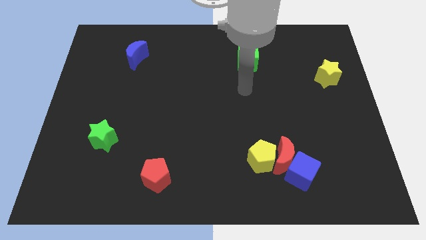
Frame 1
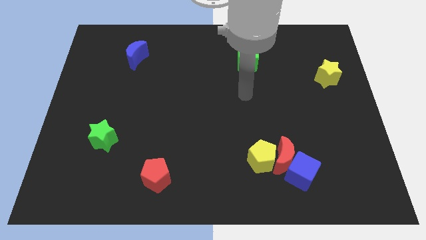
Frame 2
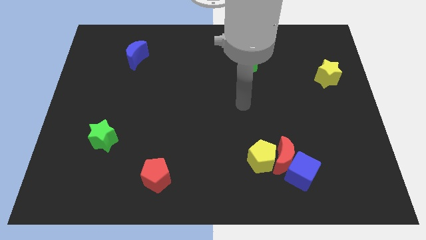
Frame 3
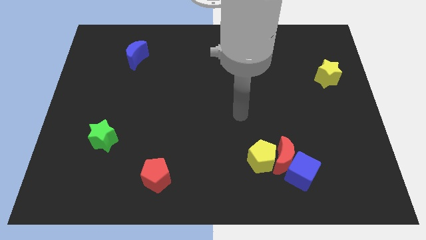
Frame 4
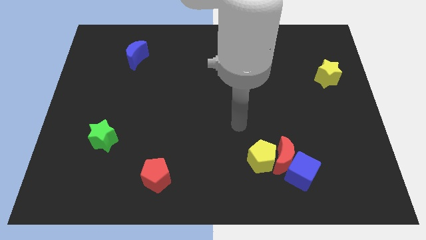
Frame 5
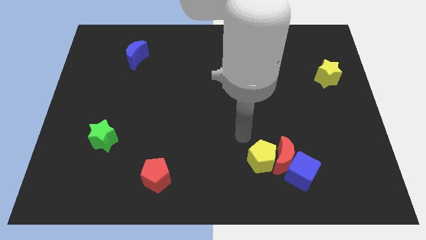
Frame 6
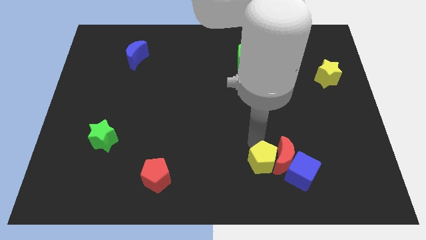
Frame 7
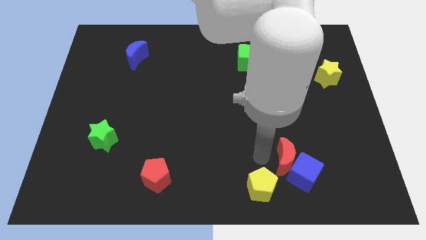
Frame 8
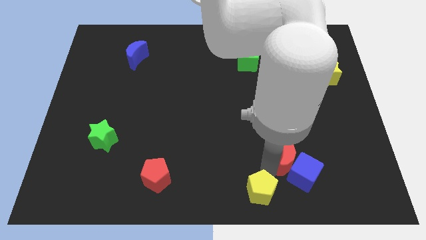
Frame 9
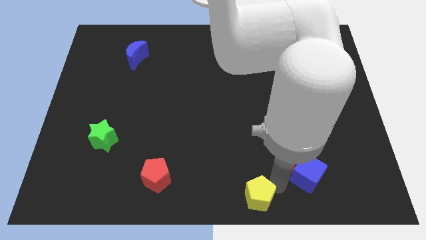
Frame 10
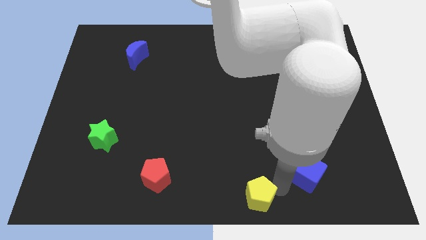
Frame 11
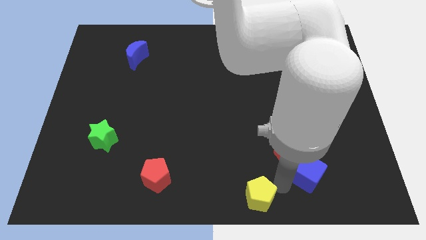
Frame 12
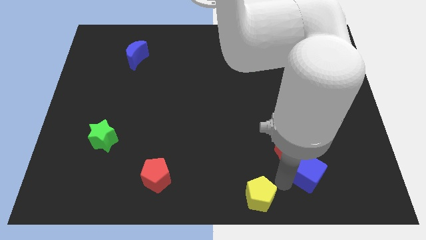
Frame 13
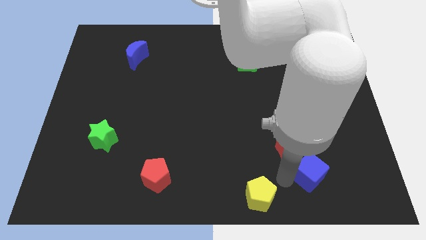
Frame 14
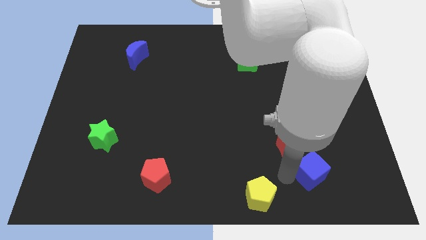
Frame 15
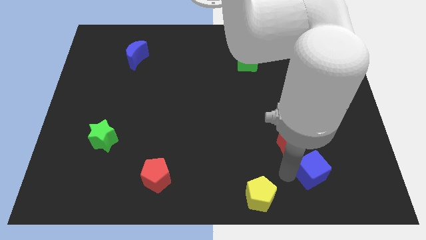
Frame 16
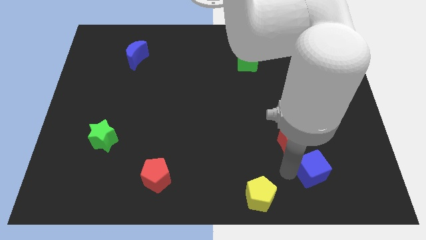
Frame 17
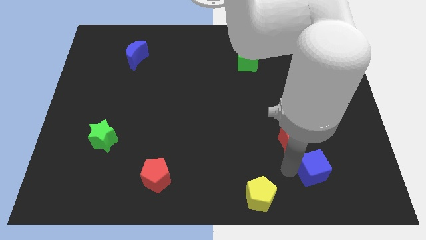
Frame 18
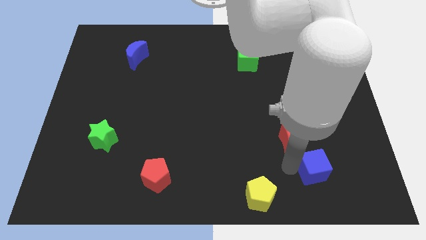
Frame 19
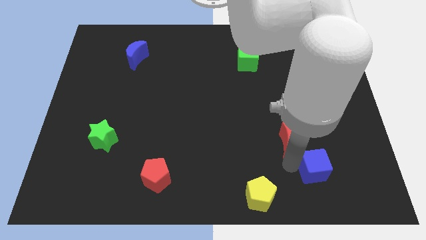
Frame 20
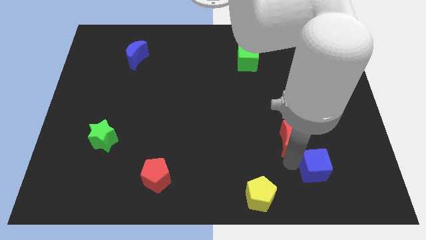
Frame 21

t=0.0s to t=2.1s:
pull the red moon apart from the blue cube and yellow pentagon

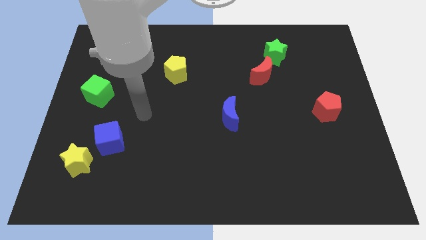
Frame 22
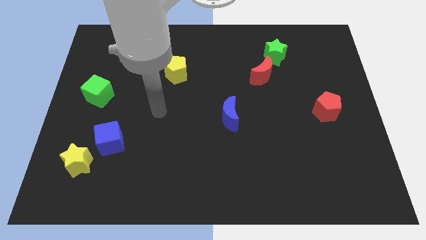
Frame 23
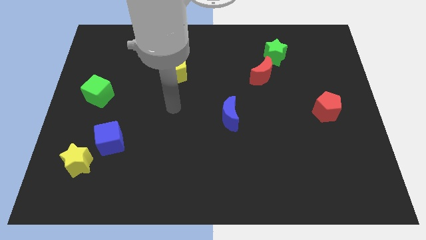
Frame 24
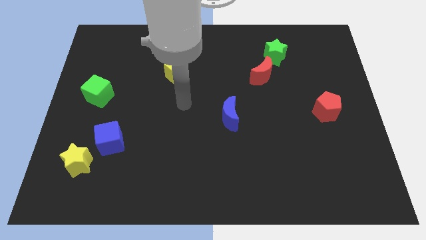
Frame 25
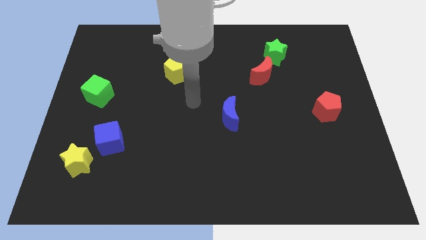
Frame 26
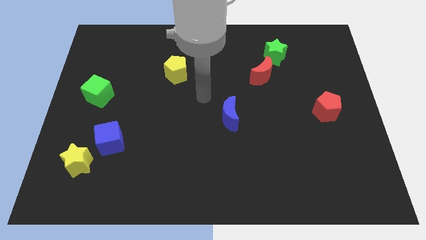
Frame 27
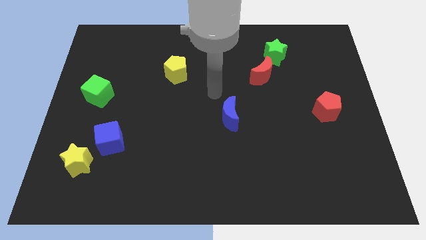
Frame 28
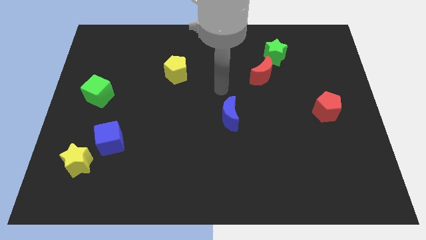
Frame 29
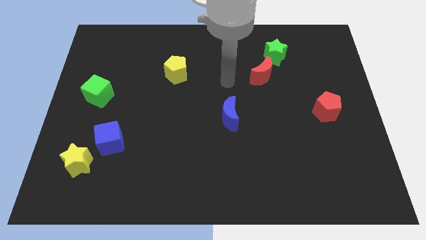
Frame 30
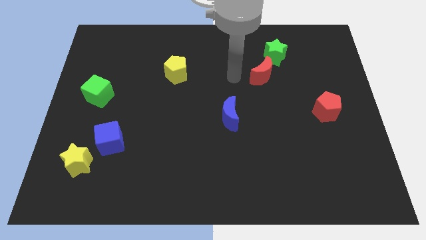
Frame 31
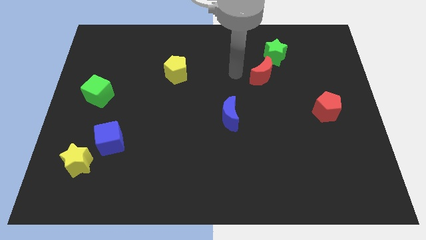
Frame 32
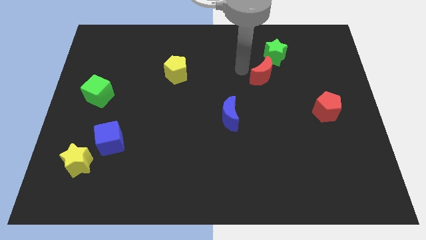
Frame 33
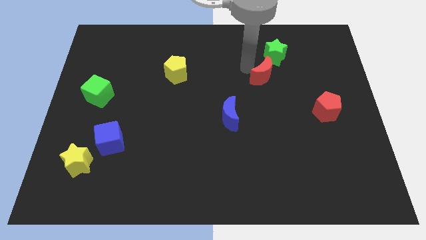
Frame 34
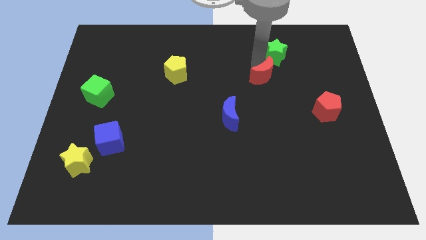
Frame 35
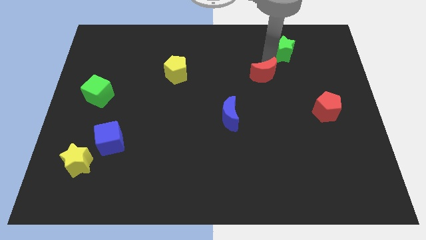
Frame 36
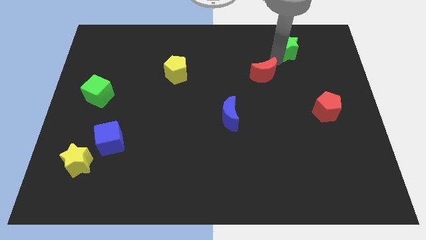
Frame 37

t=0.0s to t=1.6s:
pull the red moon apart from the green star

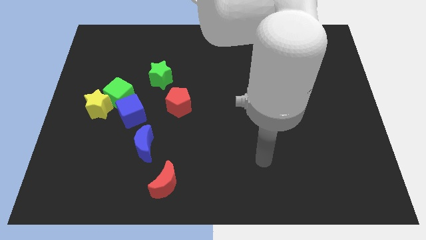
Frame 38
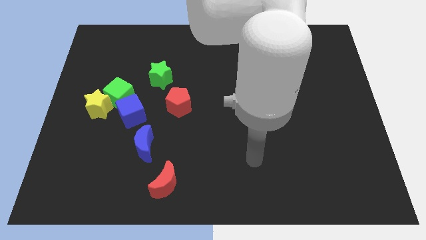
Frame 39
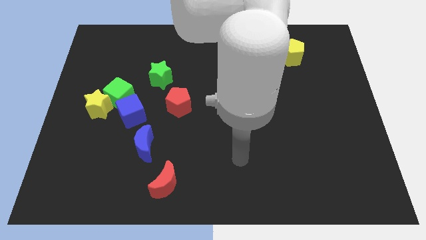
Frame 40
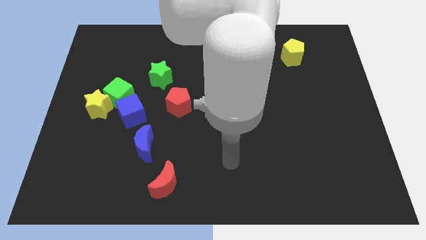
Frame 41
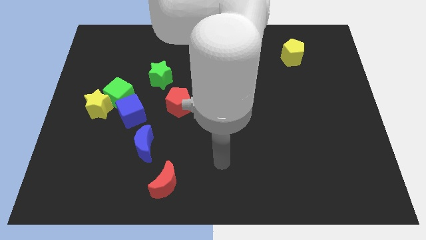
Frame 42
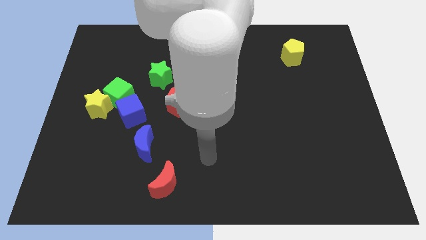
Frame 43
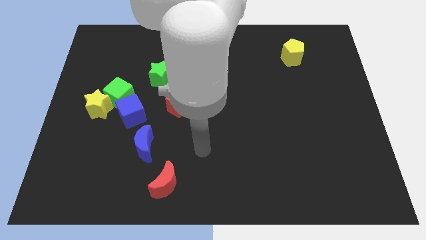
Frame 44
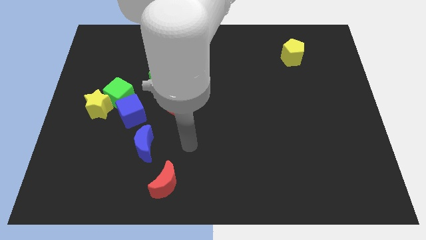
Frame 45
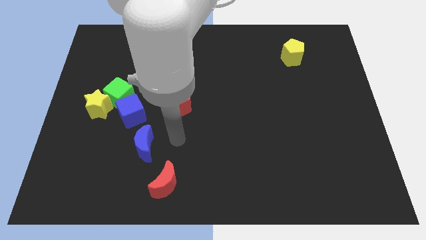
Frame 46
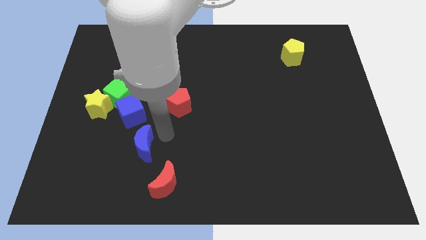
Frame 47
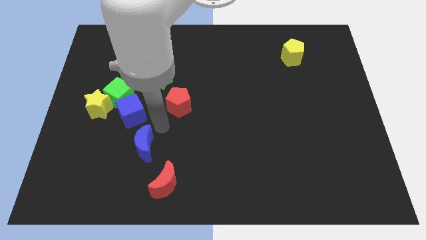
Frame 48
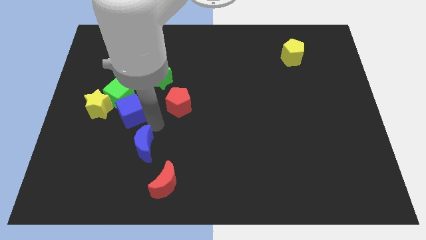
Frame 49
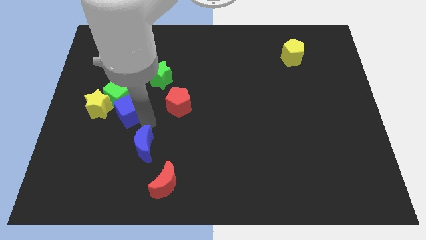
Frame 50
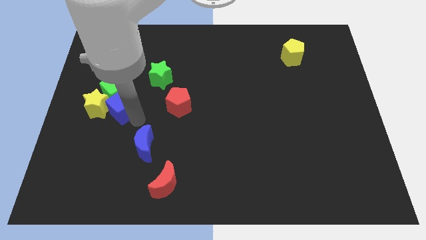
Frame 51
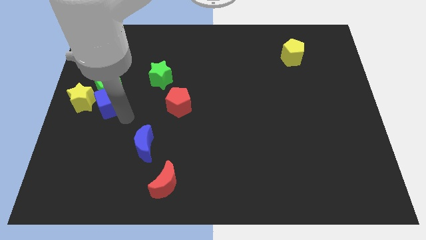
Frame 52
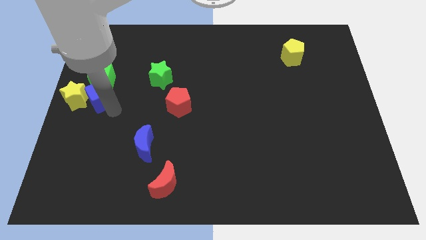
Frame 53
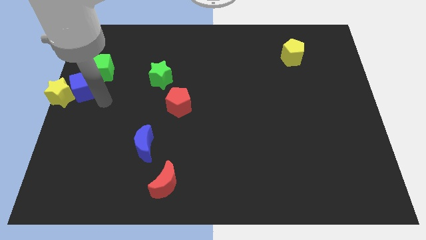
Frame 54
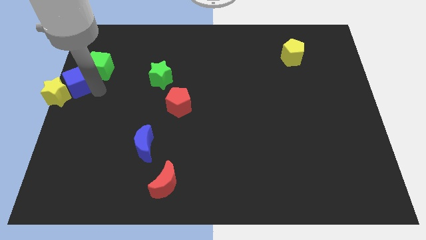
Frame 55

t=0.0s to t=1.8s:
separate the green cube from the yellow star and blue cube

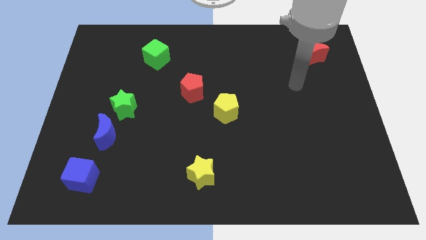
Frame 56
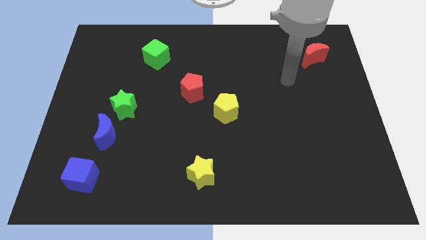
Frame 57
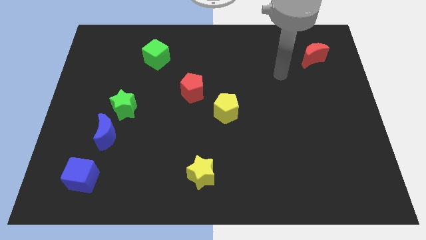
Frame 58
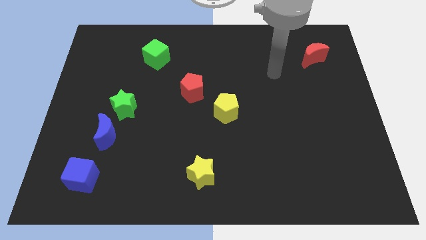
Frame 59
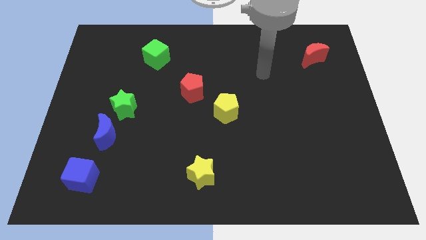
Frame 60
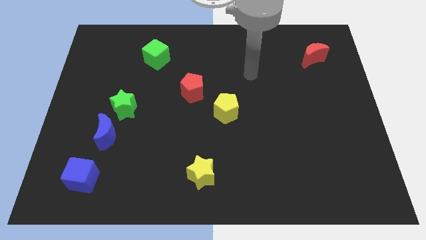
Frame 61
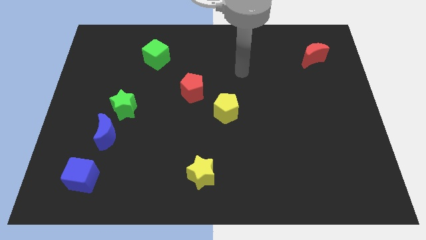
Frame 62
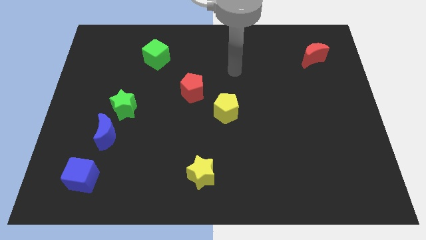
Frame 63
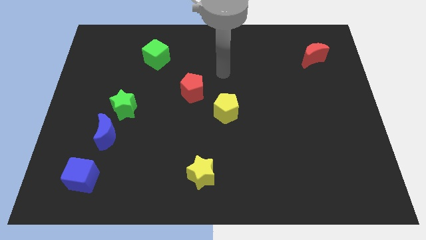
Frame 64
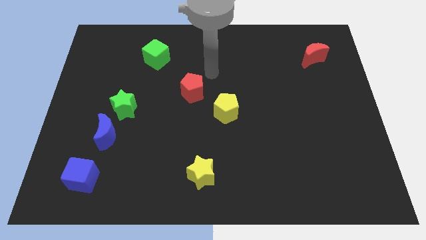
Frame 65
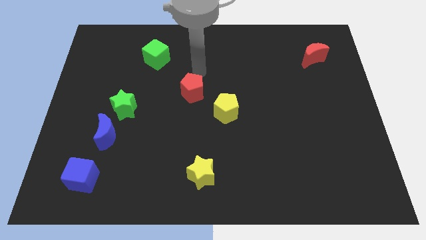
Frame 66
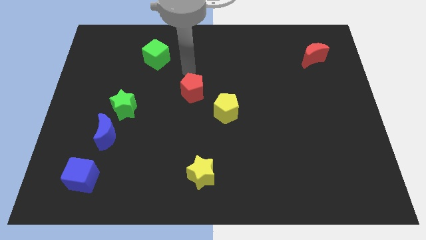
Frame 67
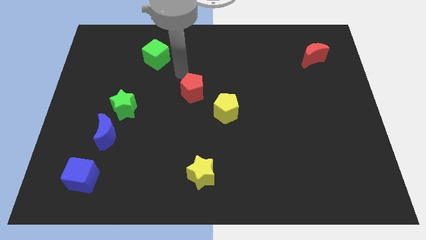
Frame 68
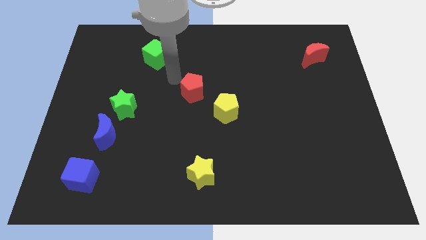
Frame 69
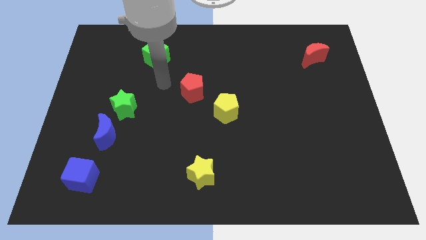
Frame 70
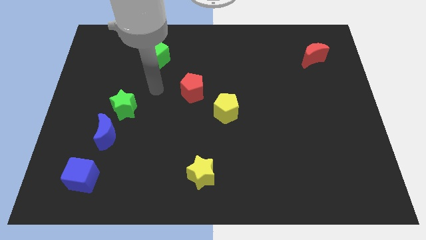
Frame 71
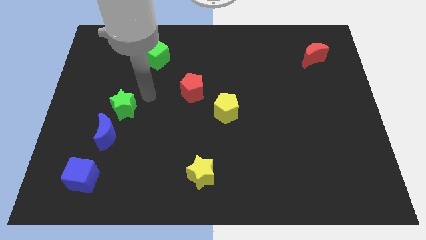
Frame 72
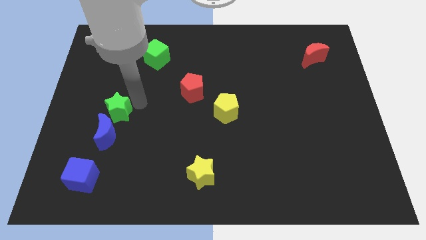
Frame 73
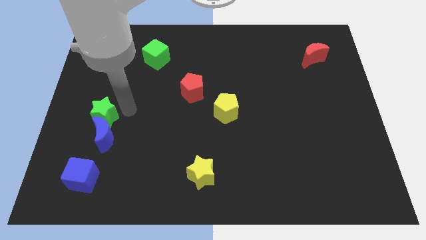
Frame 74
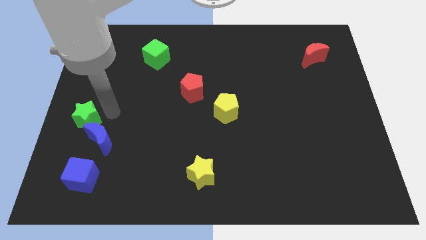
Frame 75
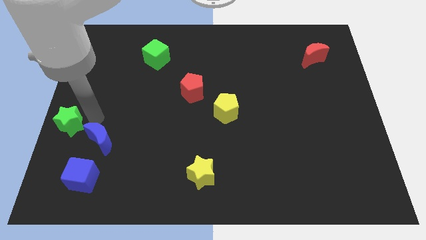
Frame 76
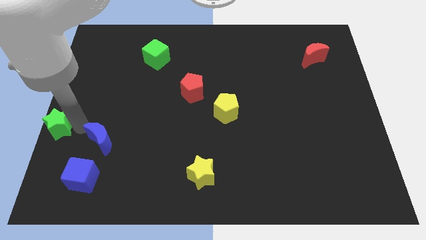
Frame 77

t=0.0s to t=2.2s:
pull the blue moon apart from the green star

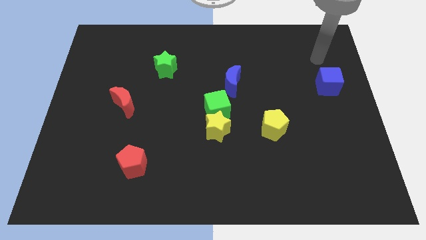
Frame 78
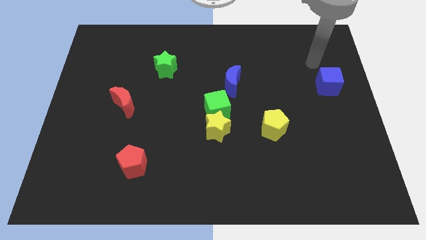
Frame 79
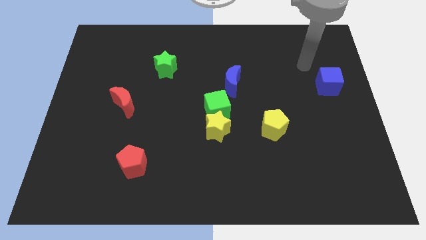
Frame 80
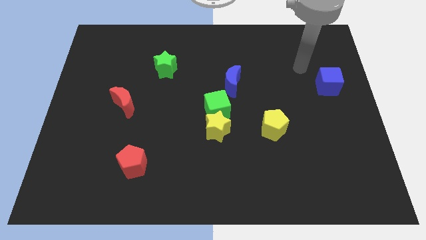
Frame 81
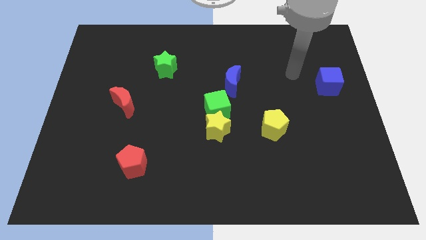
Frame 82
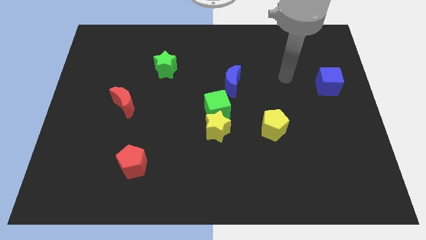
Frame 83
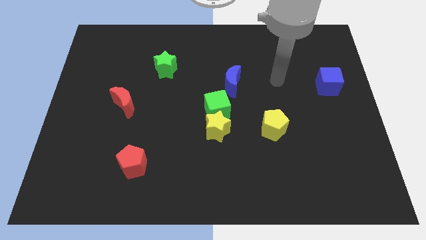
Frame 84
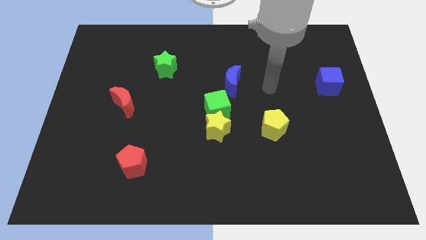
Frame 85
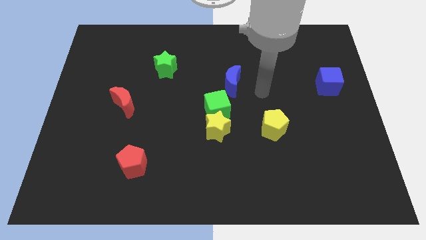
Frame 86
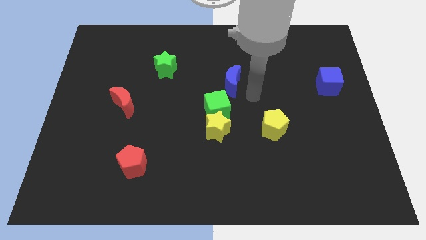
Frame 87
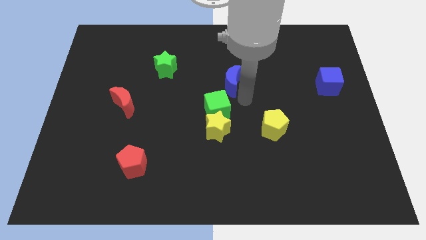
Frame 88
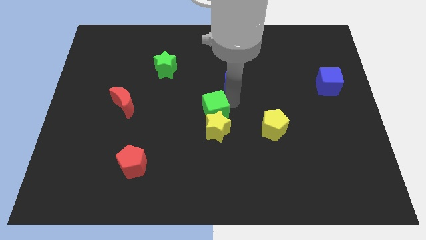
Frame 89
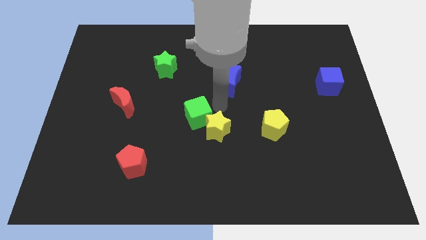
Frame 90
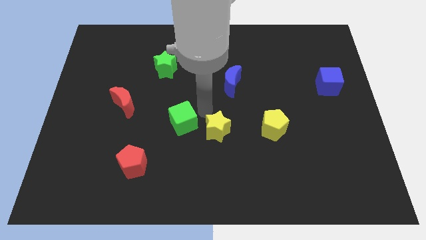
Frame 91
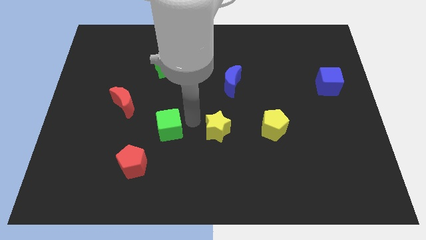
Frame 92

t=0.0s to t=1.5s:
move the yellow star away from the green cube

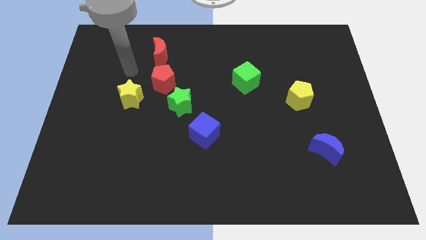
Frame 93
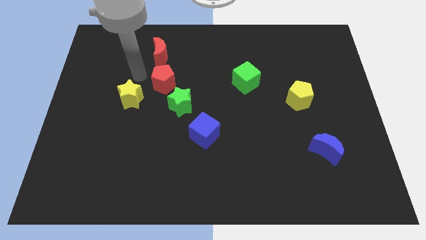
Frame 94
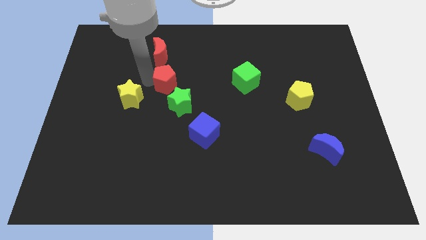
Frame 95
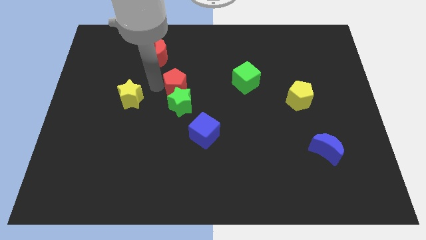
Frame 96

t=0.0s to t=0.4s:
move the yellow star away from the red pentagon
